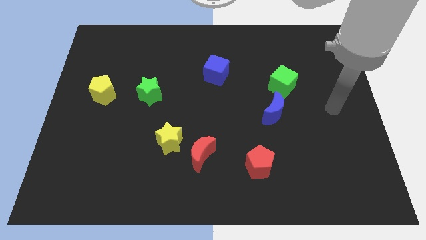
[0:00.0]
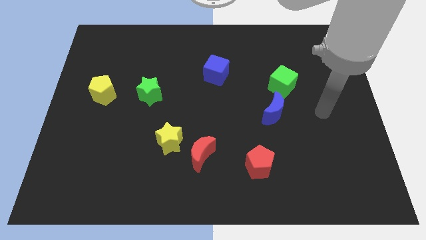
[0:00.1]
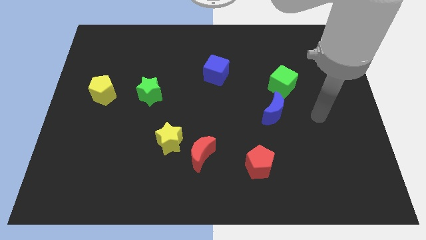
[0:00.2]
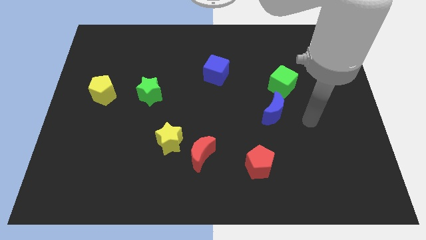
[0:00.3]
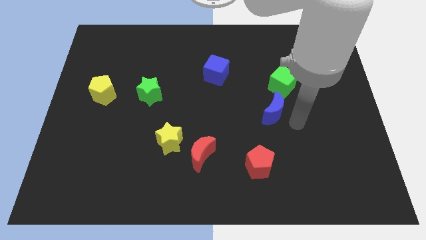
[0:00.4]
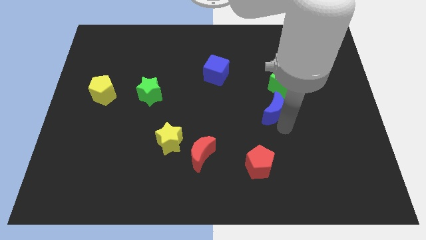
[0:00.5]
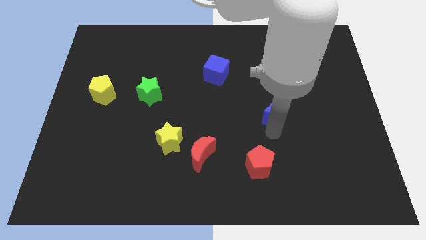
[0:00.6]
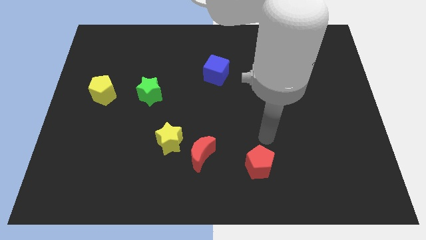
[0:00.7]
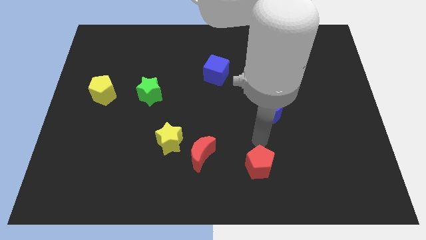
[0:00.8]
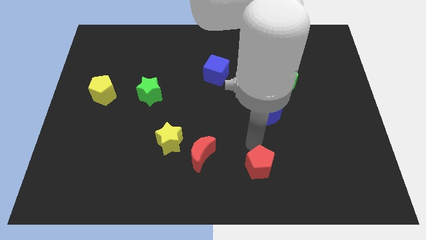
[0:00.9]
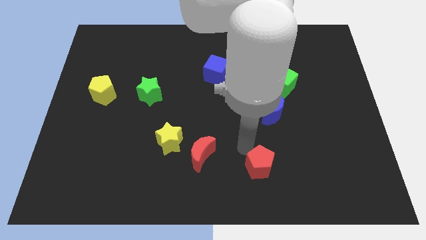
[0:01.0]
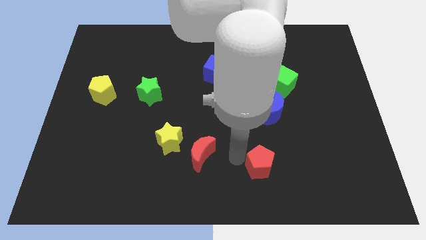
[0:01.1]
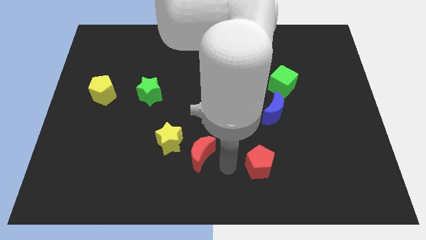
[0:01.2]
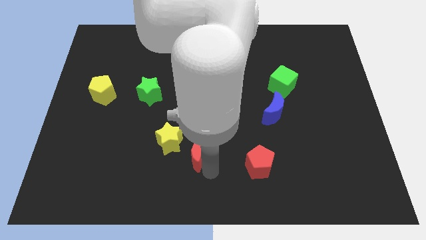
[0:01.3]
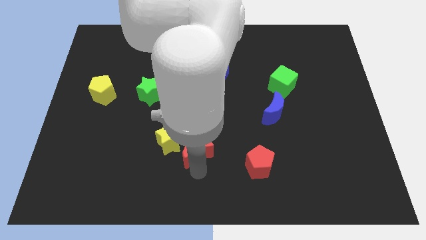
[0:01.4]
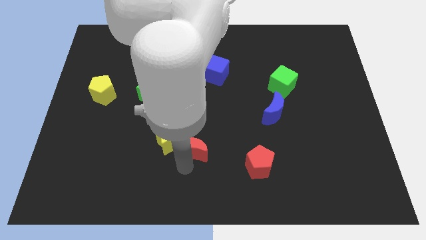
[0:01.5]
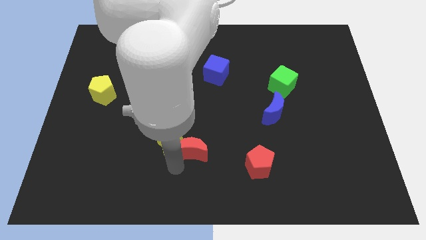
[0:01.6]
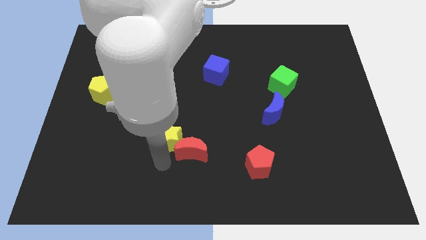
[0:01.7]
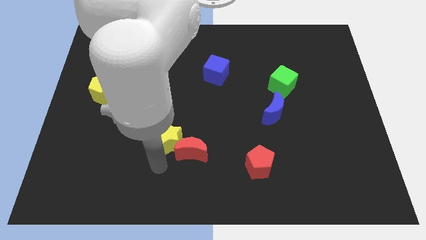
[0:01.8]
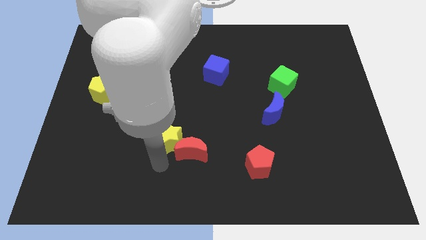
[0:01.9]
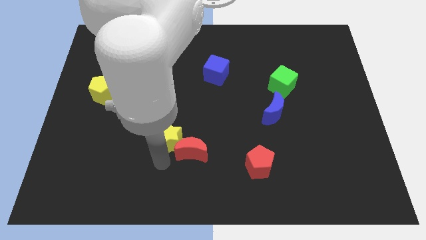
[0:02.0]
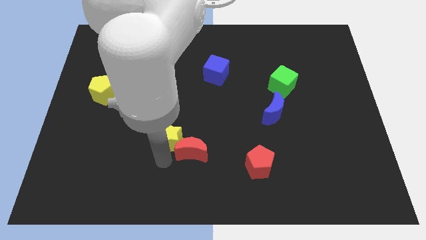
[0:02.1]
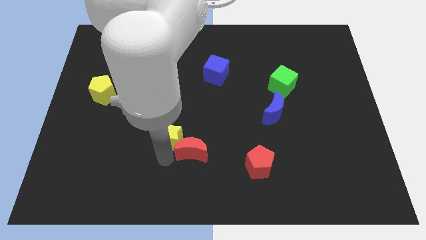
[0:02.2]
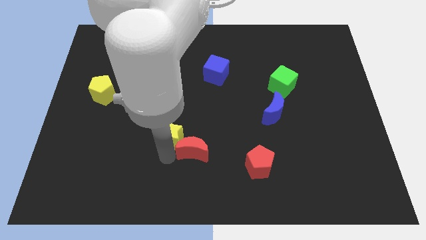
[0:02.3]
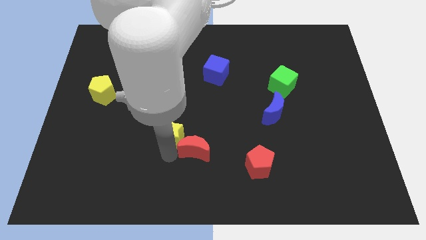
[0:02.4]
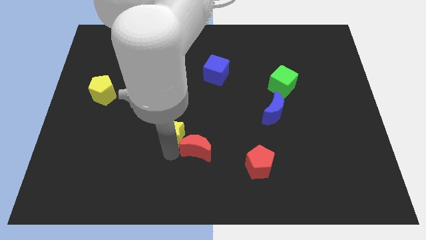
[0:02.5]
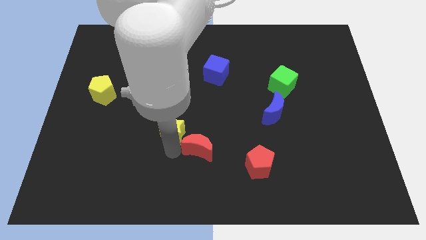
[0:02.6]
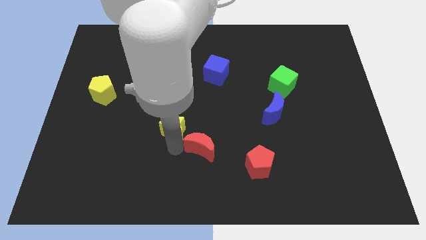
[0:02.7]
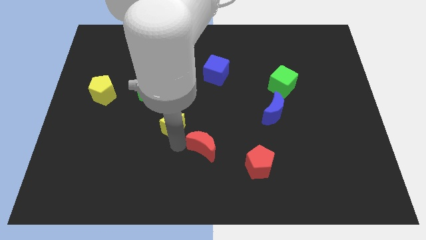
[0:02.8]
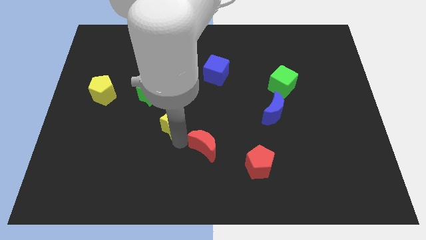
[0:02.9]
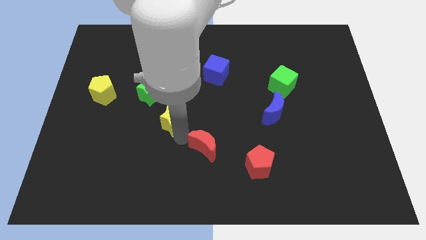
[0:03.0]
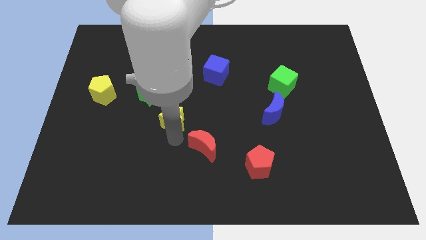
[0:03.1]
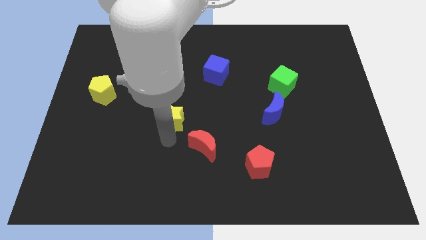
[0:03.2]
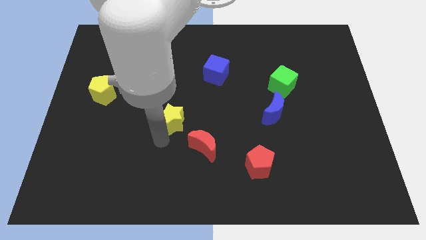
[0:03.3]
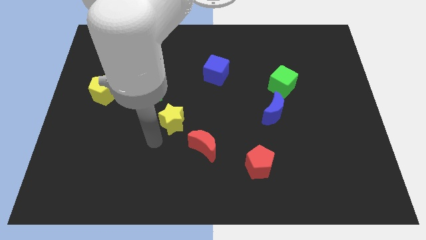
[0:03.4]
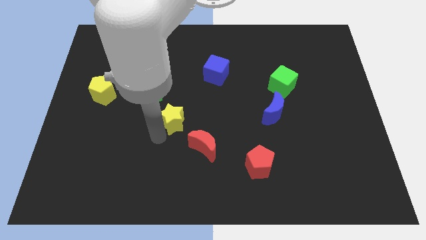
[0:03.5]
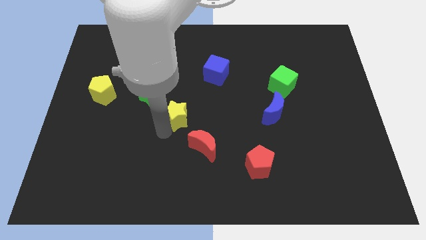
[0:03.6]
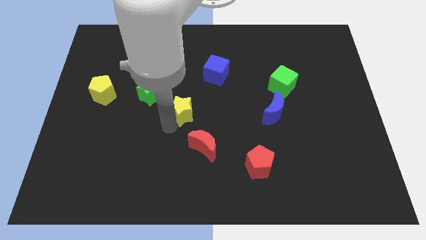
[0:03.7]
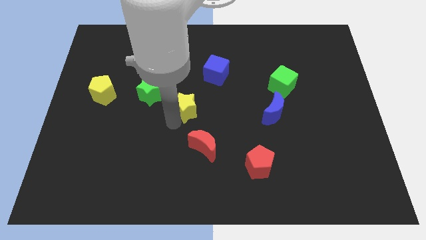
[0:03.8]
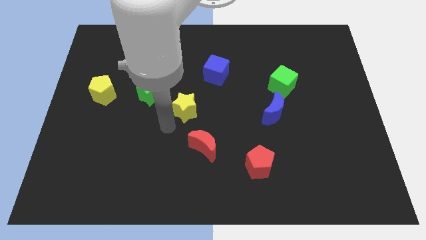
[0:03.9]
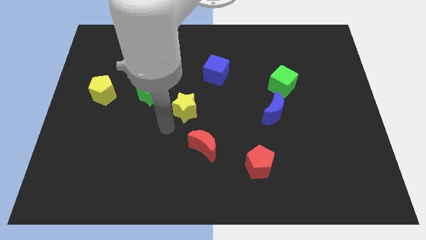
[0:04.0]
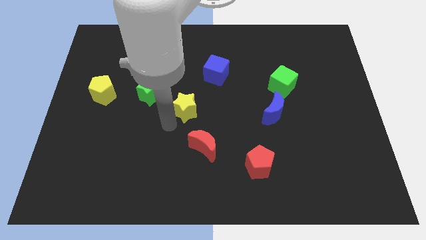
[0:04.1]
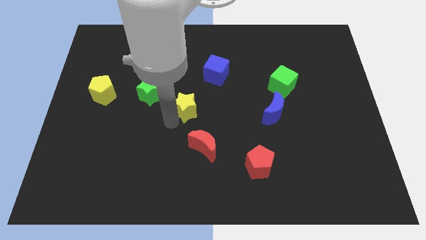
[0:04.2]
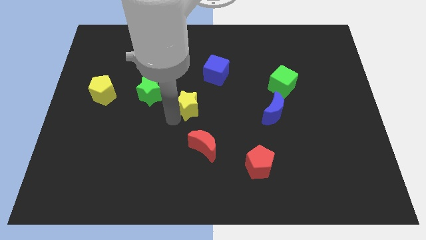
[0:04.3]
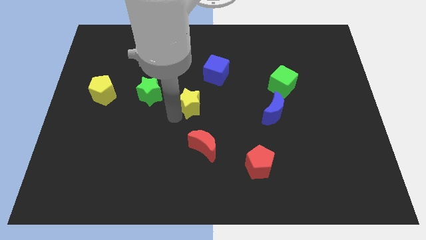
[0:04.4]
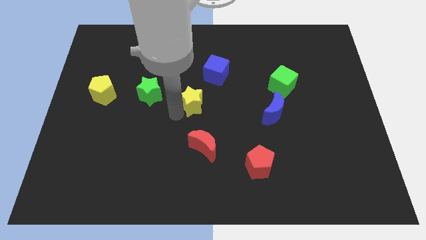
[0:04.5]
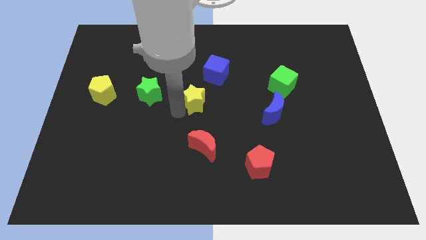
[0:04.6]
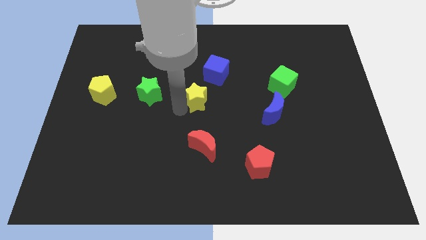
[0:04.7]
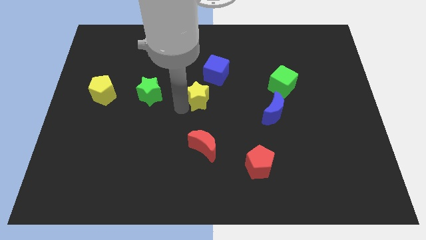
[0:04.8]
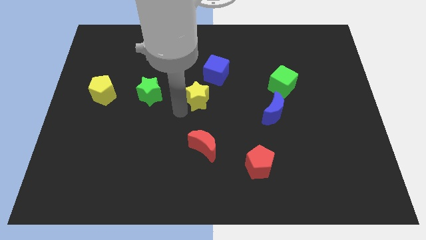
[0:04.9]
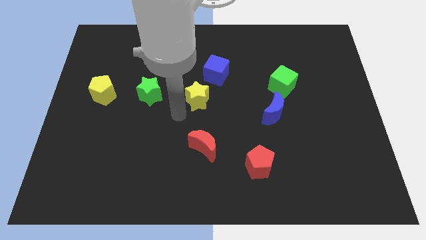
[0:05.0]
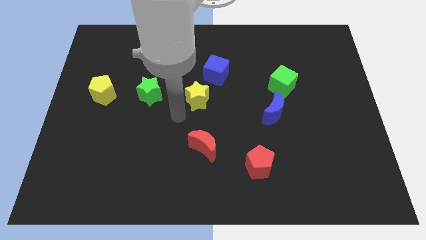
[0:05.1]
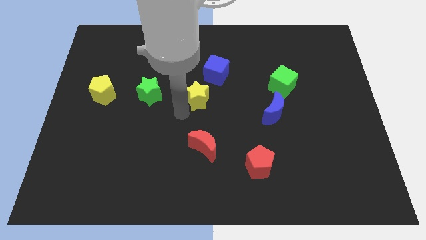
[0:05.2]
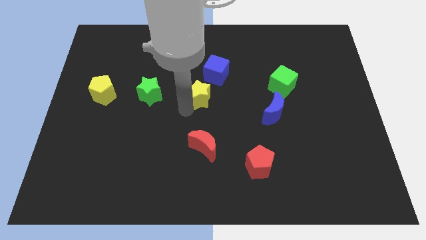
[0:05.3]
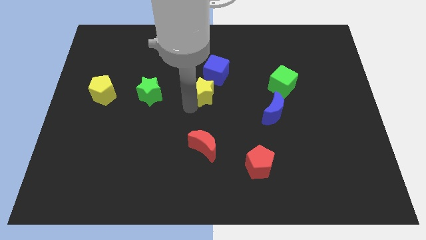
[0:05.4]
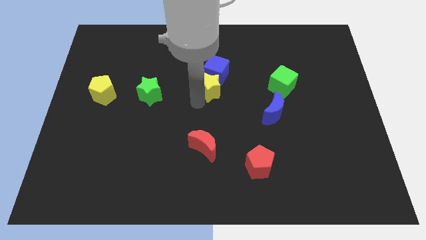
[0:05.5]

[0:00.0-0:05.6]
slide the yellow star next to the blue cube

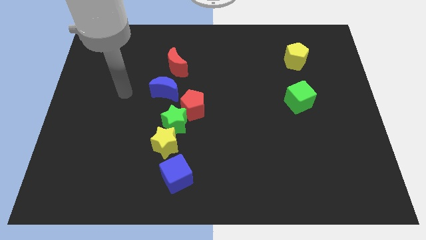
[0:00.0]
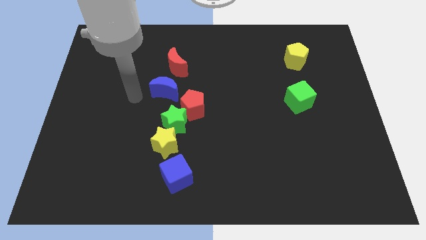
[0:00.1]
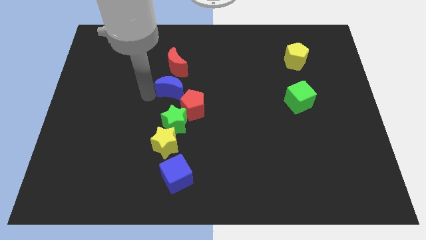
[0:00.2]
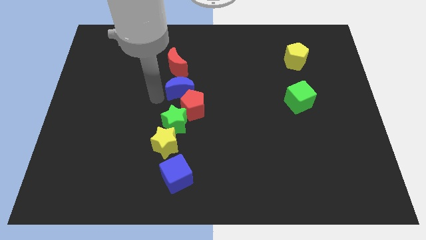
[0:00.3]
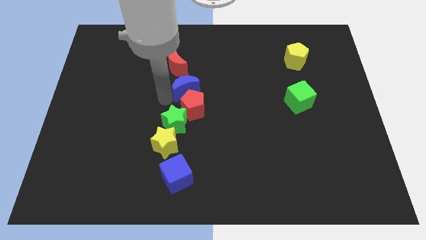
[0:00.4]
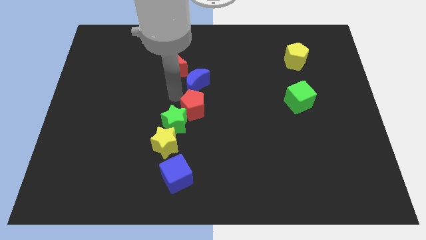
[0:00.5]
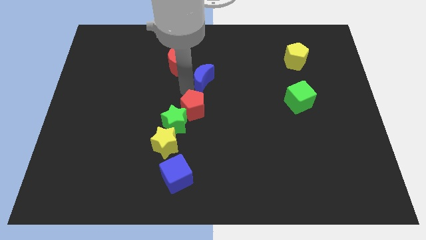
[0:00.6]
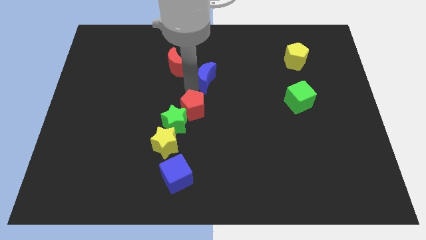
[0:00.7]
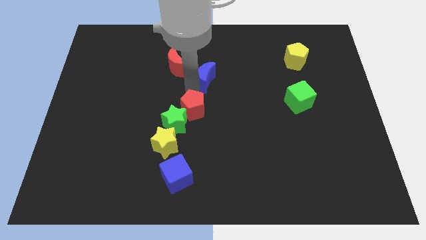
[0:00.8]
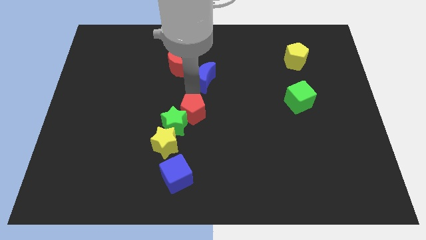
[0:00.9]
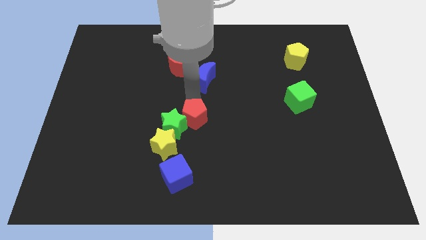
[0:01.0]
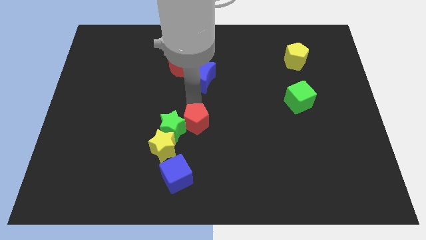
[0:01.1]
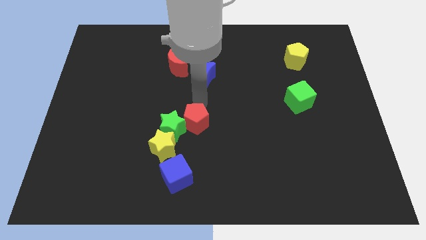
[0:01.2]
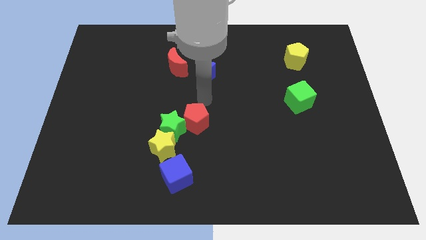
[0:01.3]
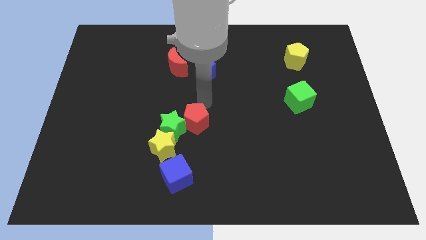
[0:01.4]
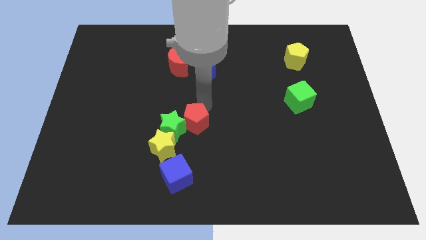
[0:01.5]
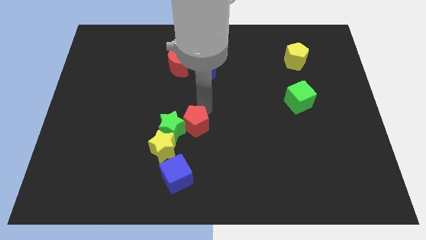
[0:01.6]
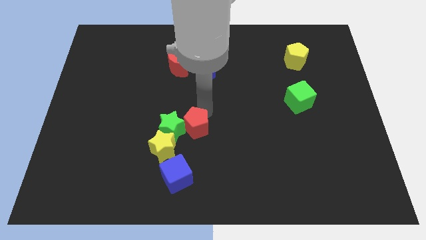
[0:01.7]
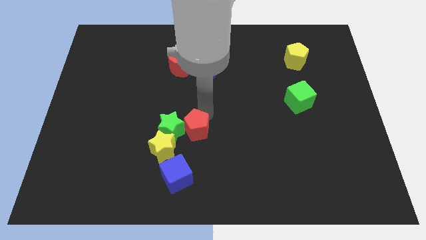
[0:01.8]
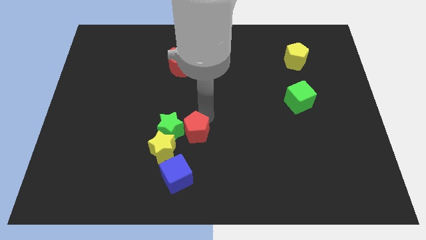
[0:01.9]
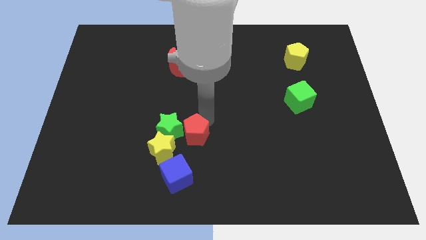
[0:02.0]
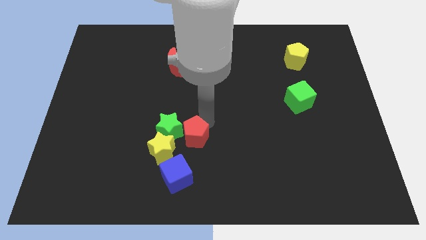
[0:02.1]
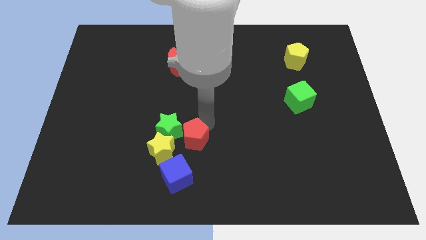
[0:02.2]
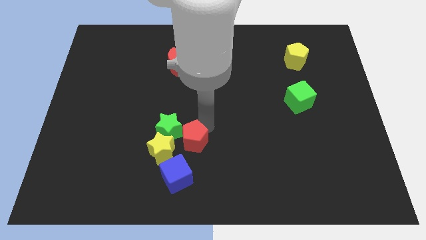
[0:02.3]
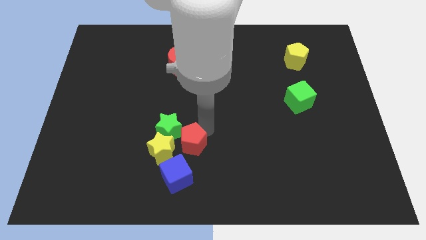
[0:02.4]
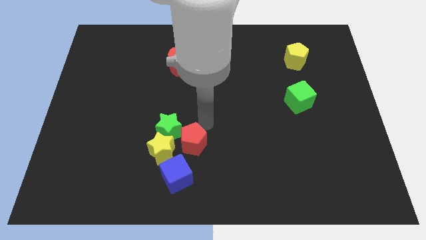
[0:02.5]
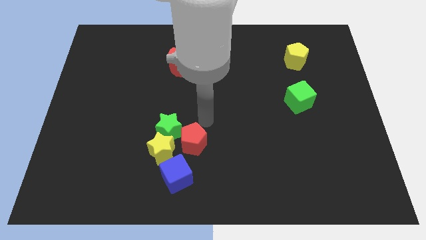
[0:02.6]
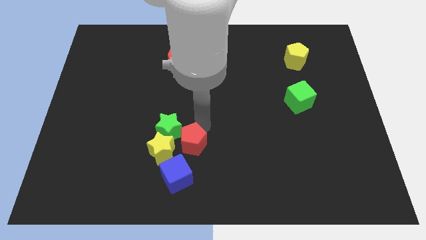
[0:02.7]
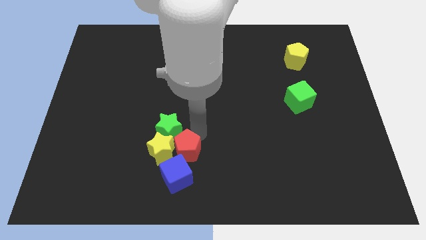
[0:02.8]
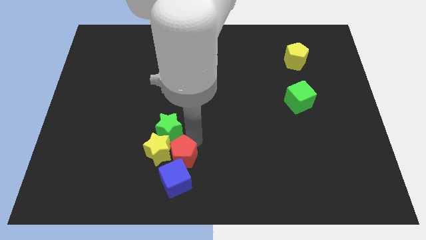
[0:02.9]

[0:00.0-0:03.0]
slide the red pentagon close to the blue cube
